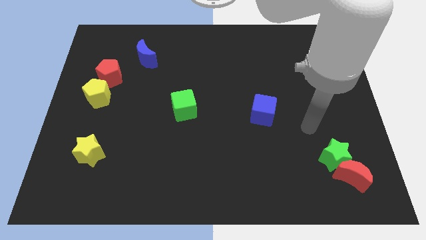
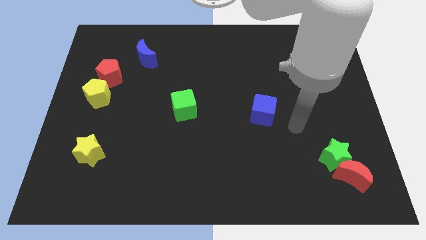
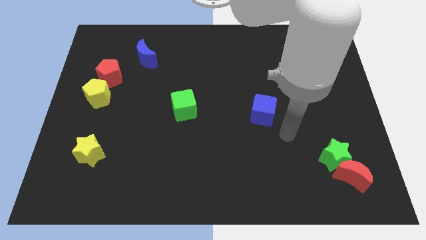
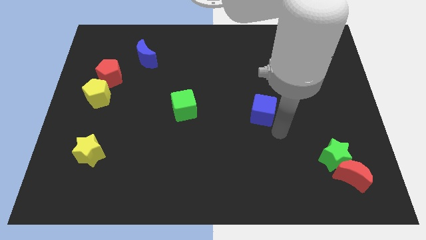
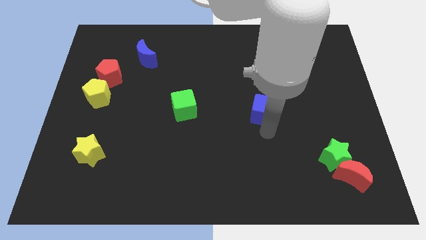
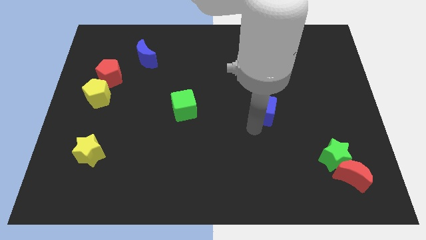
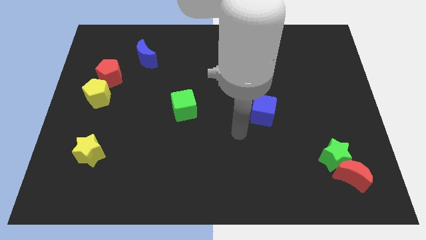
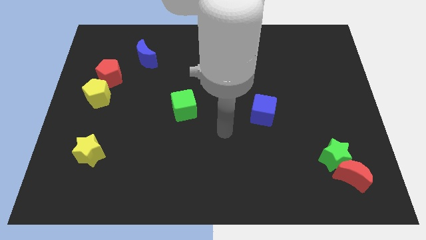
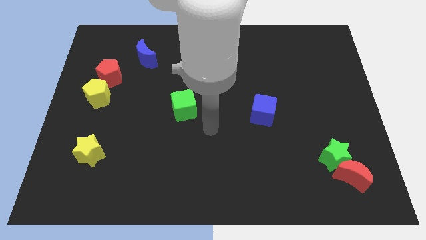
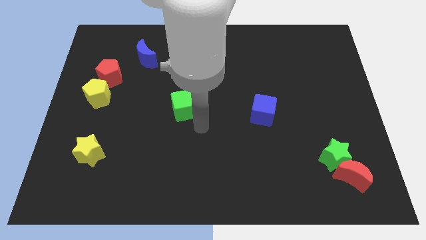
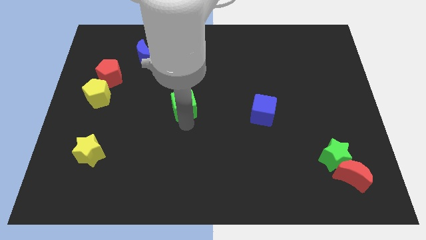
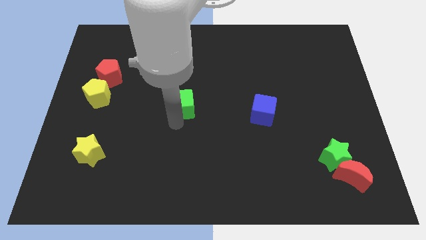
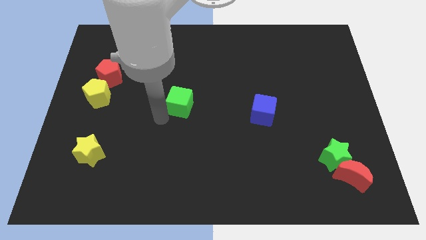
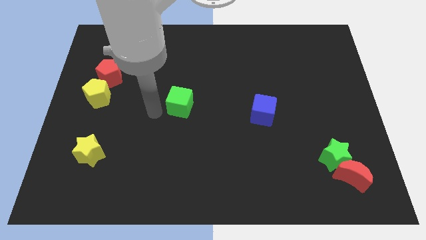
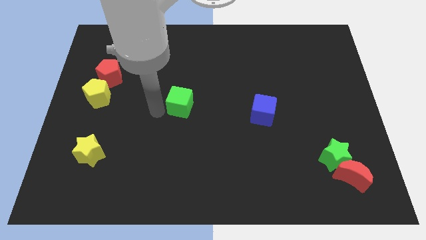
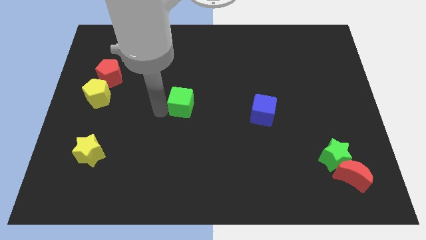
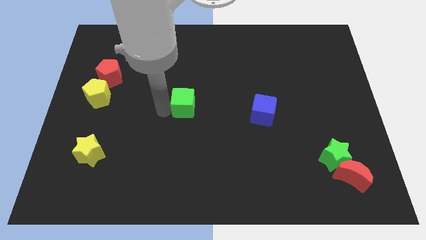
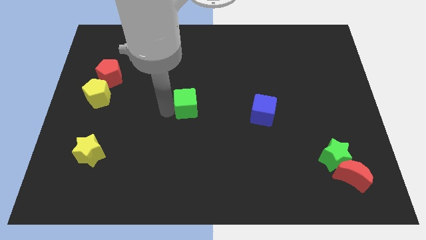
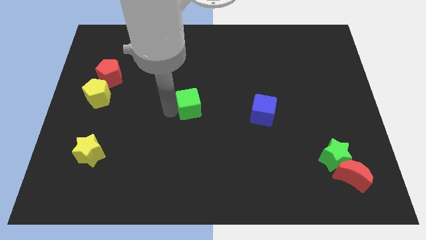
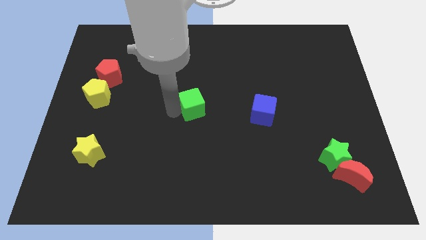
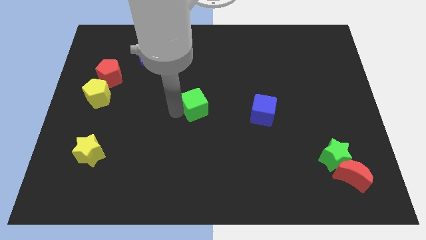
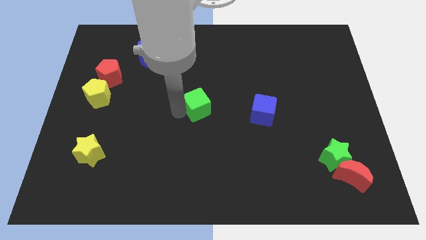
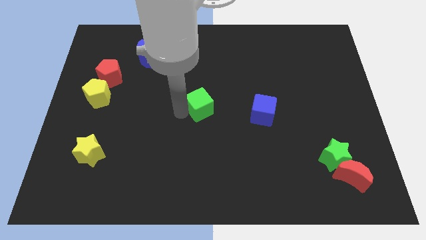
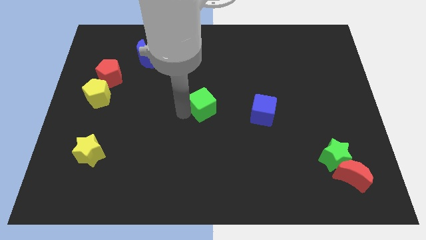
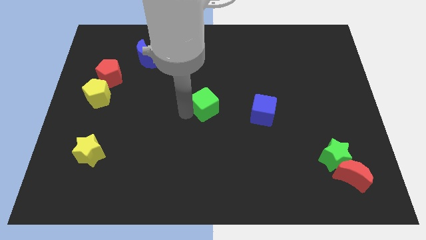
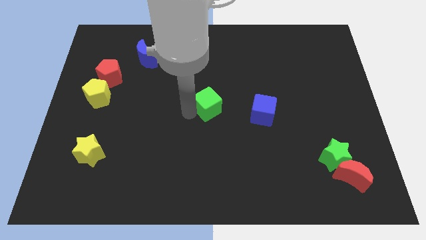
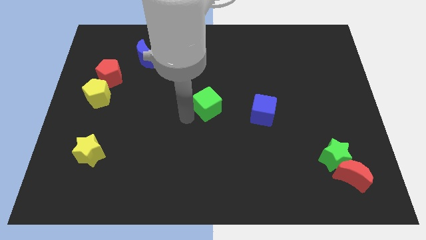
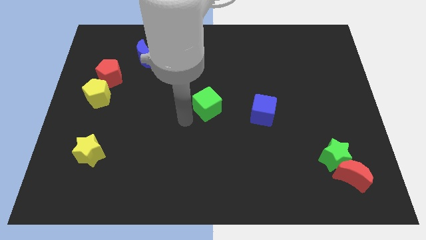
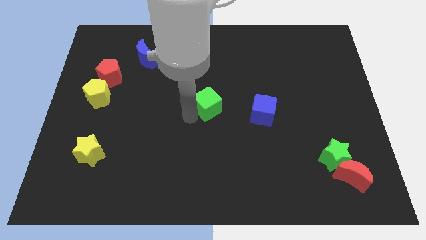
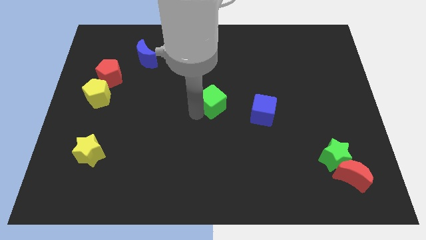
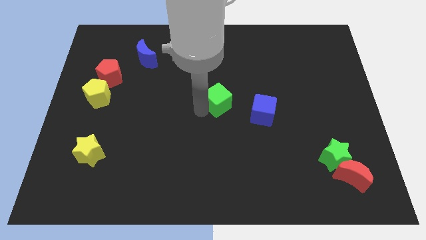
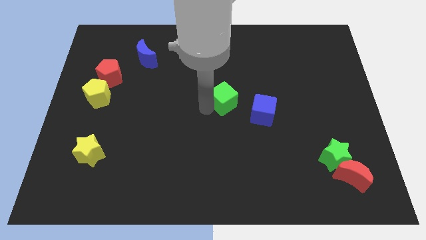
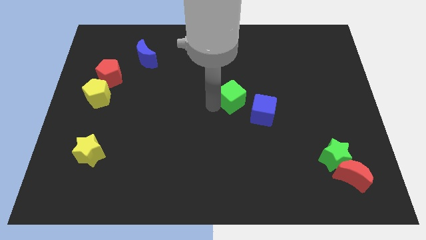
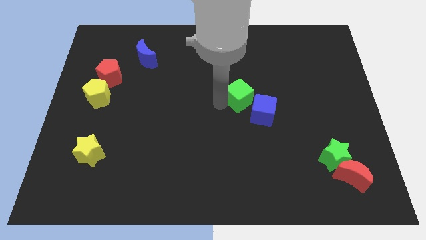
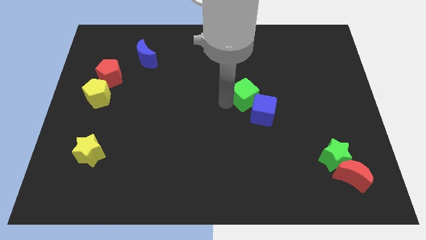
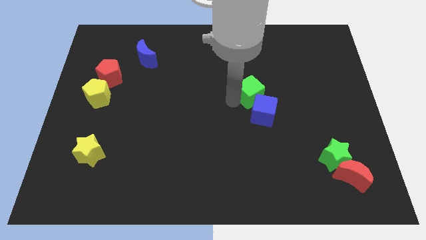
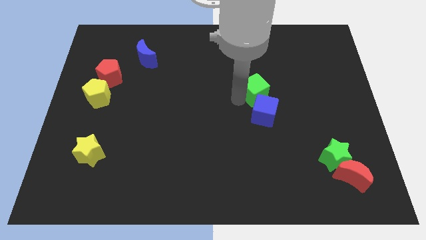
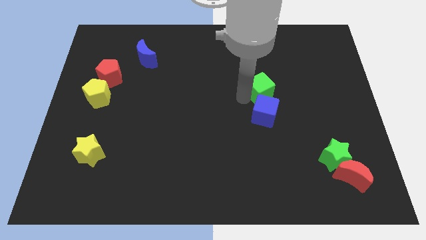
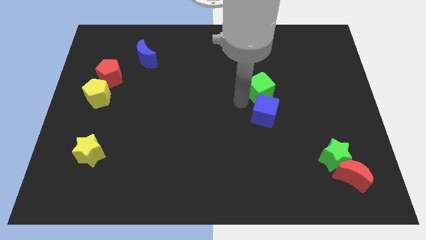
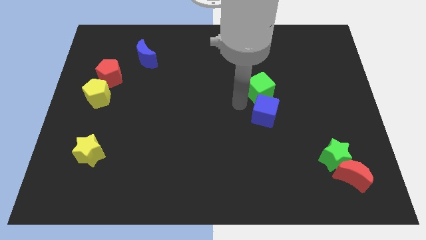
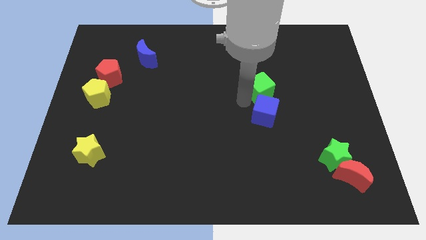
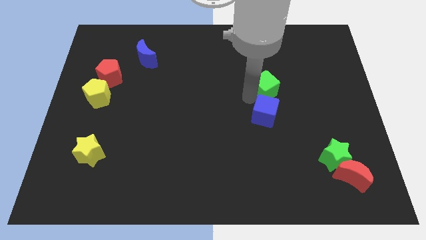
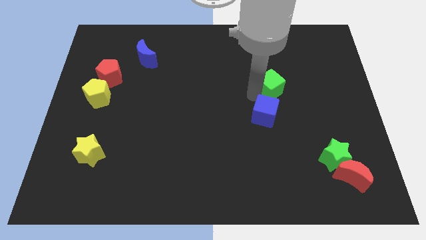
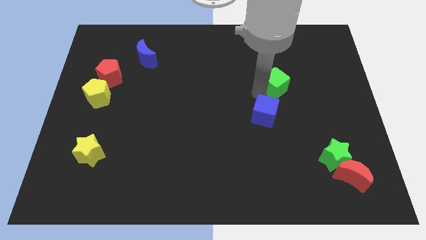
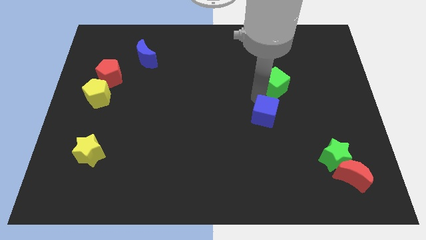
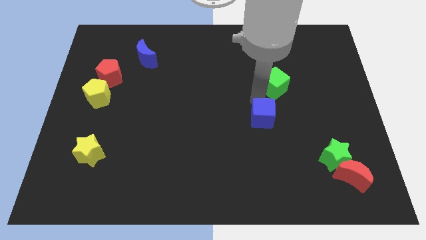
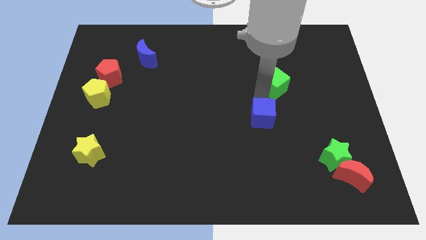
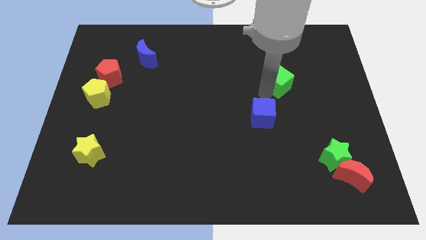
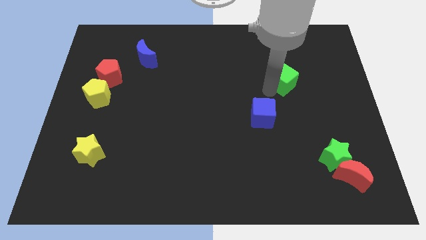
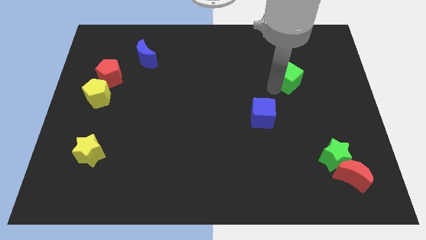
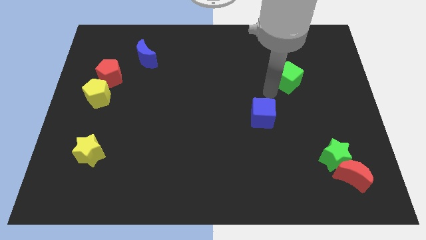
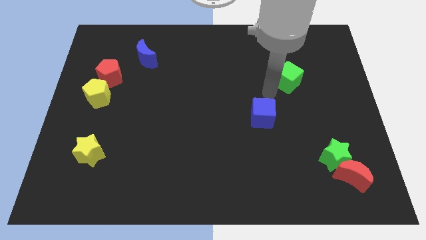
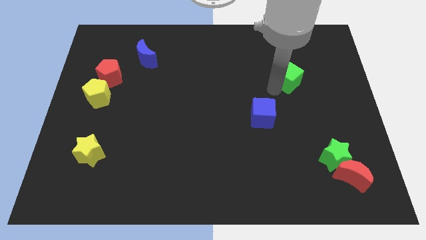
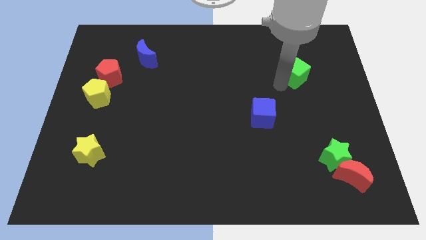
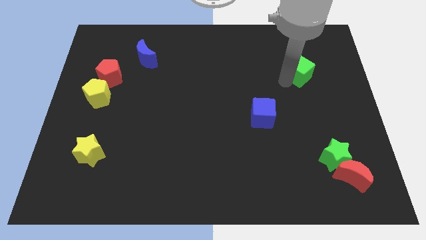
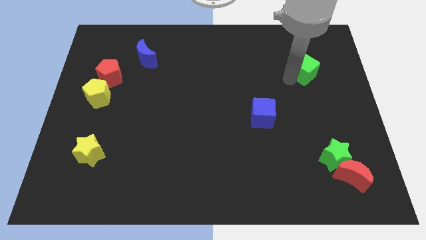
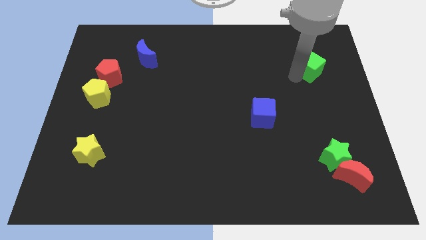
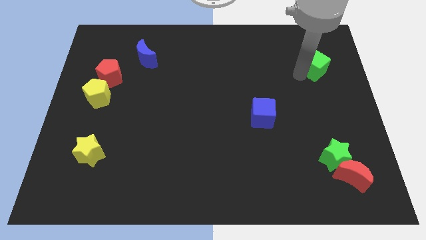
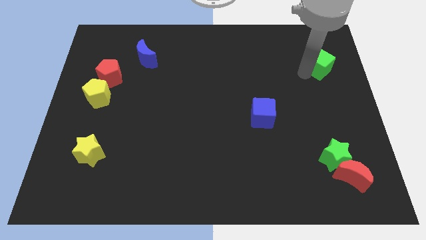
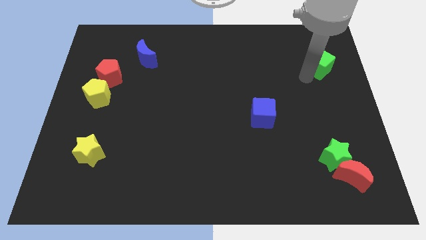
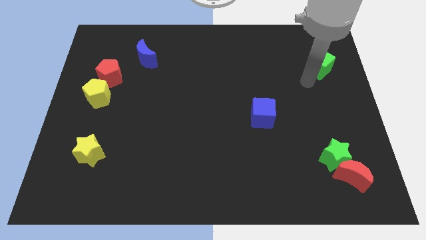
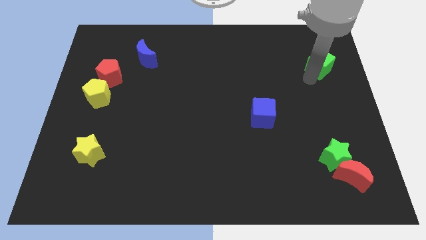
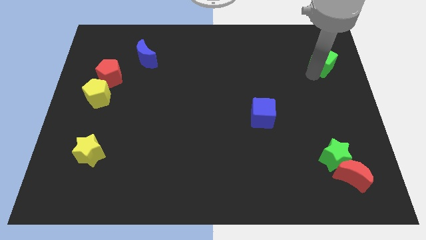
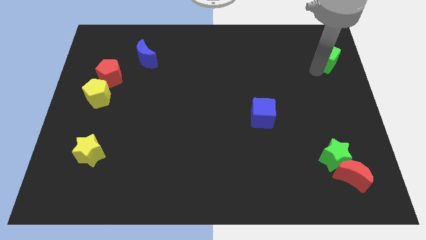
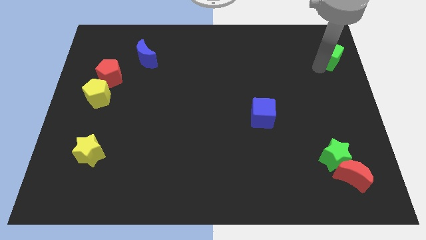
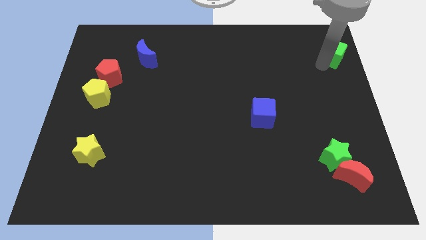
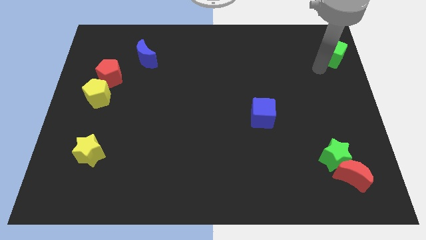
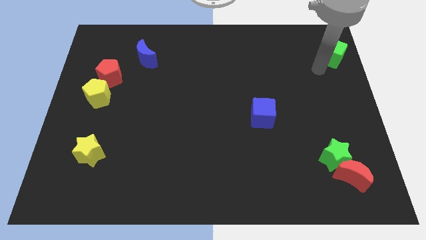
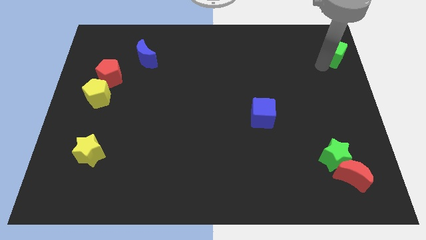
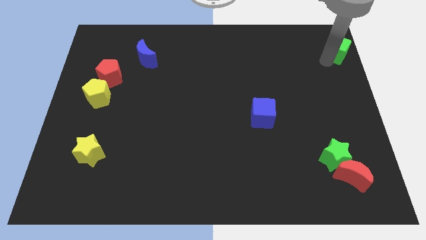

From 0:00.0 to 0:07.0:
move the green cube to the top right corner
